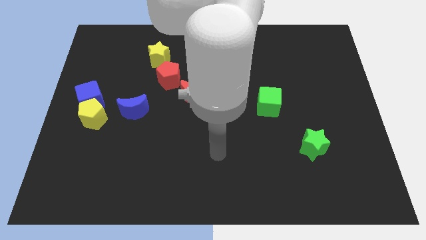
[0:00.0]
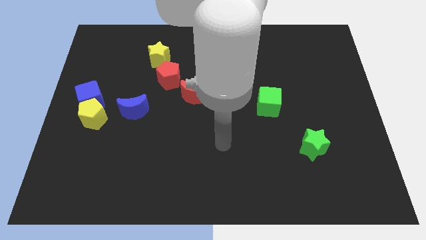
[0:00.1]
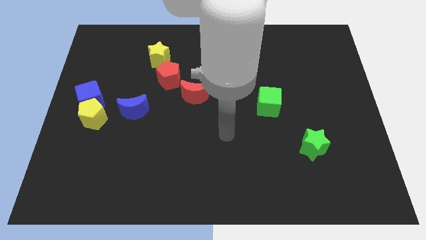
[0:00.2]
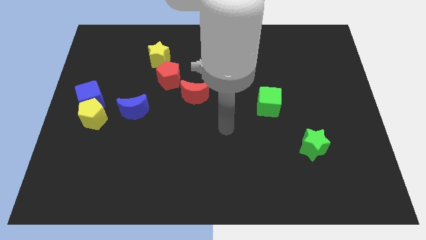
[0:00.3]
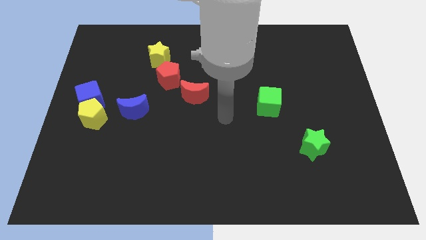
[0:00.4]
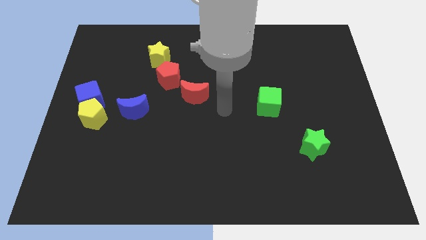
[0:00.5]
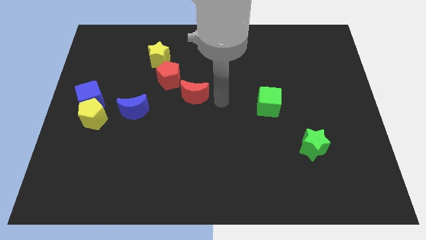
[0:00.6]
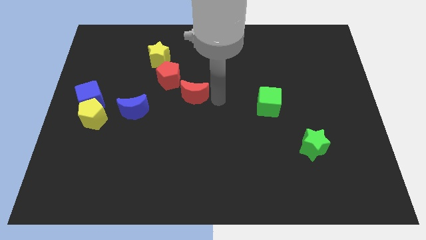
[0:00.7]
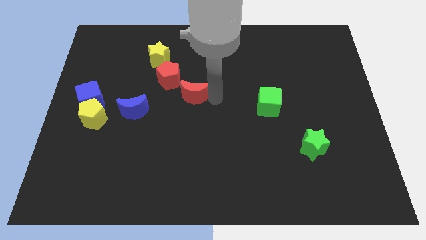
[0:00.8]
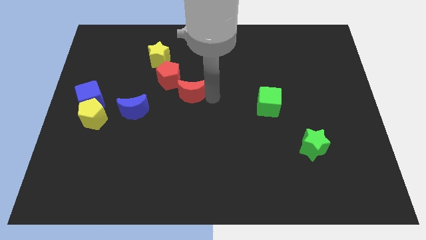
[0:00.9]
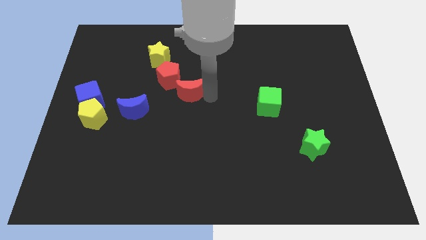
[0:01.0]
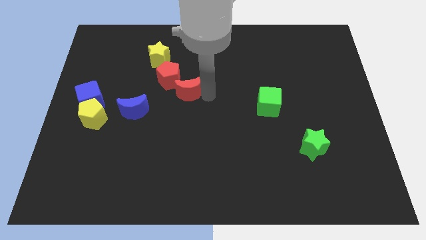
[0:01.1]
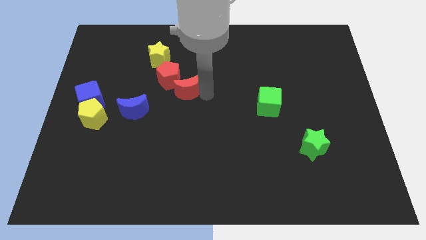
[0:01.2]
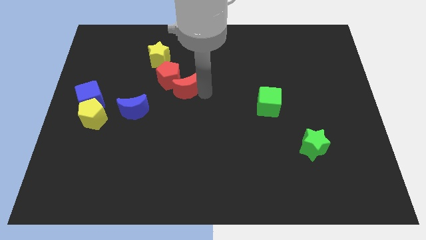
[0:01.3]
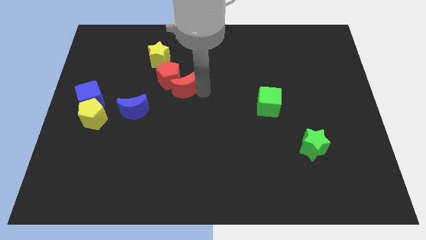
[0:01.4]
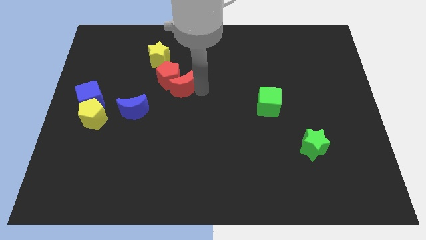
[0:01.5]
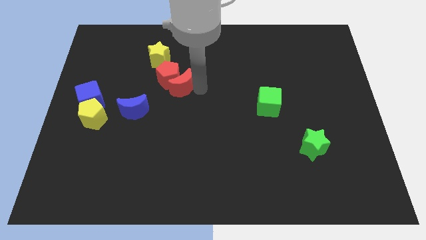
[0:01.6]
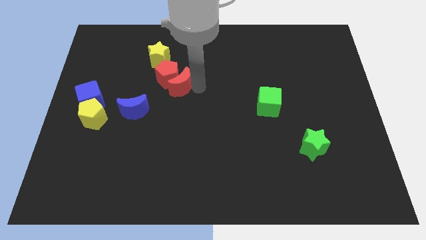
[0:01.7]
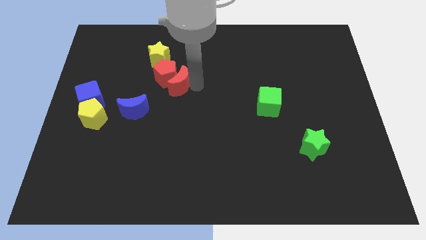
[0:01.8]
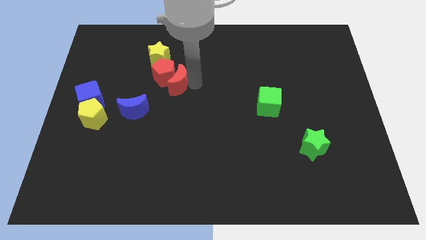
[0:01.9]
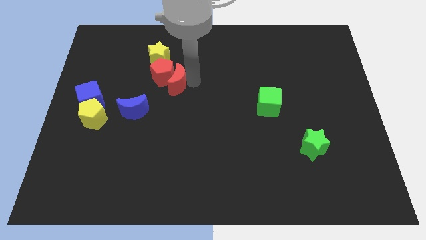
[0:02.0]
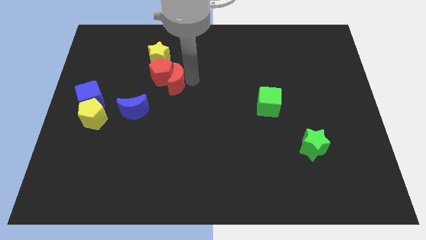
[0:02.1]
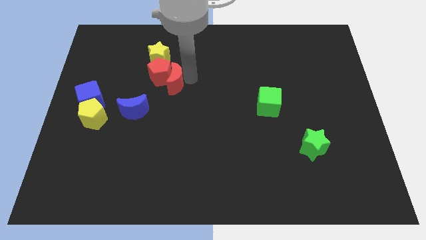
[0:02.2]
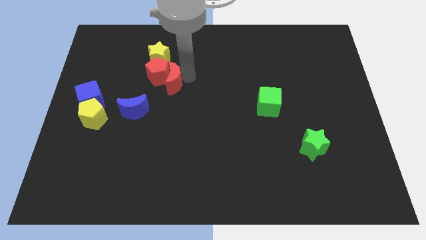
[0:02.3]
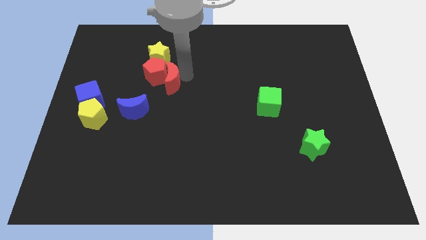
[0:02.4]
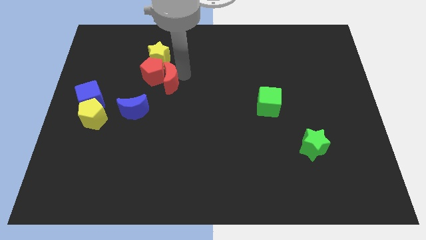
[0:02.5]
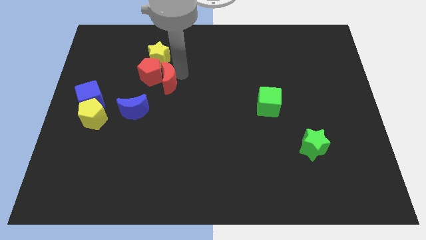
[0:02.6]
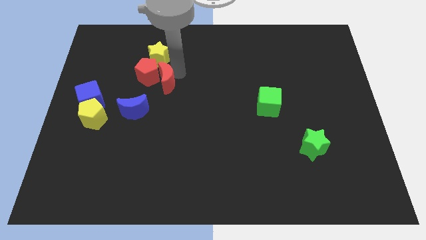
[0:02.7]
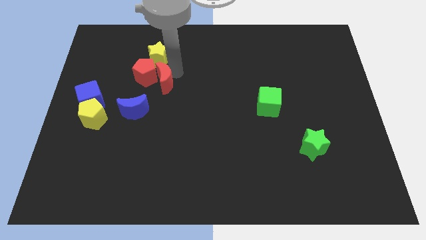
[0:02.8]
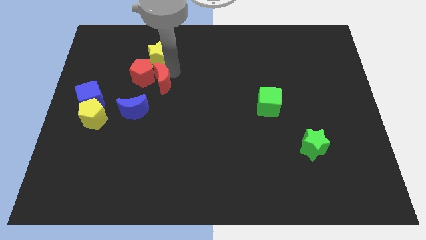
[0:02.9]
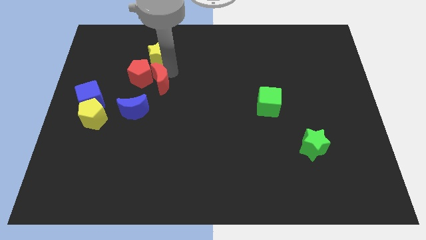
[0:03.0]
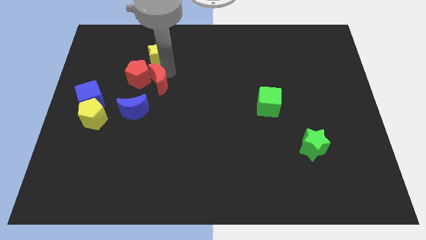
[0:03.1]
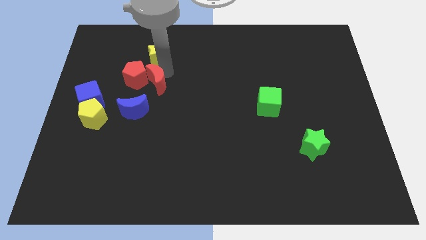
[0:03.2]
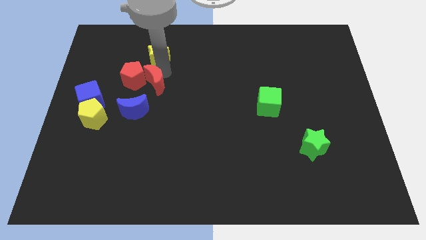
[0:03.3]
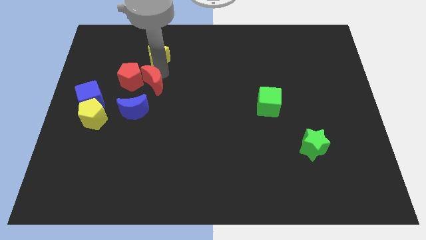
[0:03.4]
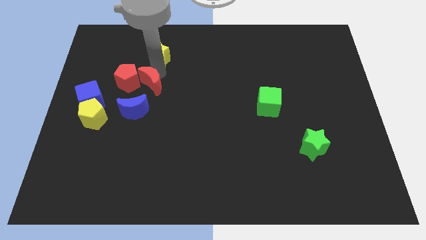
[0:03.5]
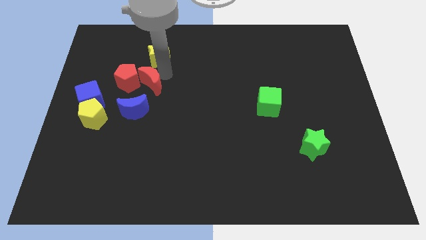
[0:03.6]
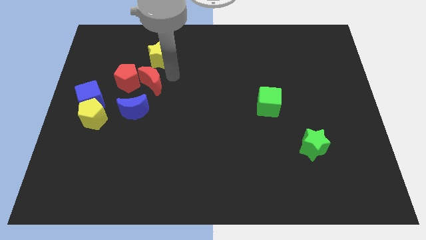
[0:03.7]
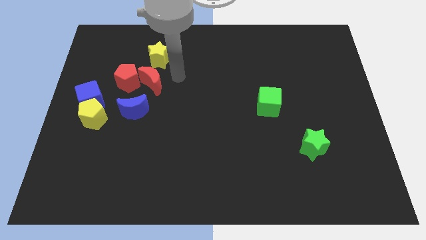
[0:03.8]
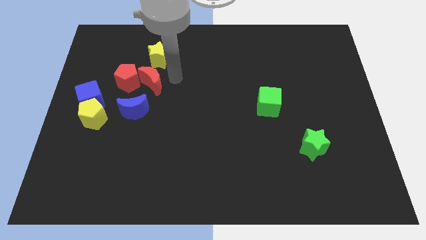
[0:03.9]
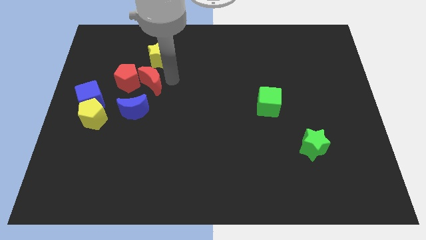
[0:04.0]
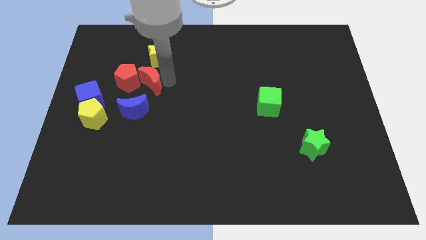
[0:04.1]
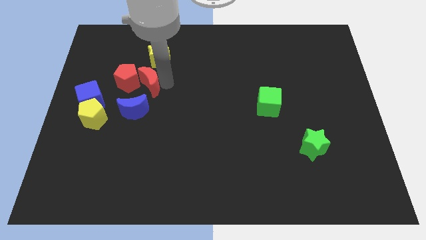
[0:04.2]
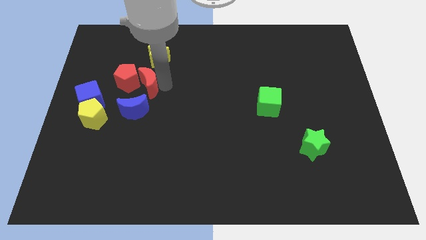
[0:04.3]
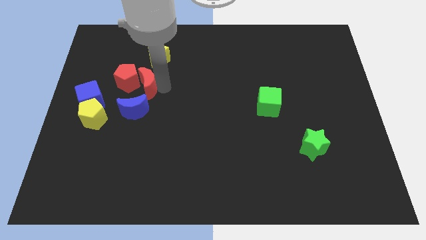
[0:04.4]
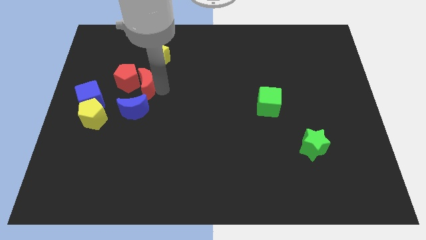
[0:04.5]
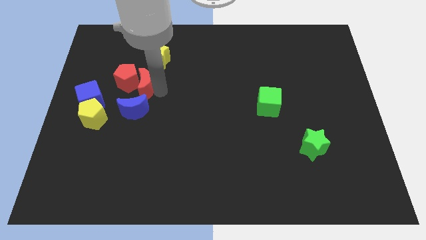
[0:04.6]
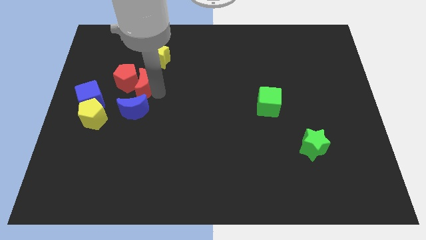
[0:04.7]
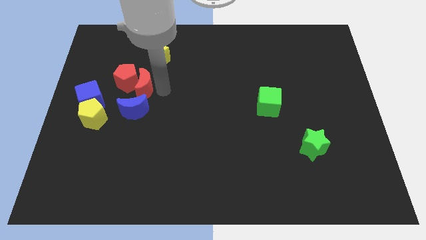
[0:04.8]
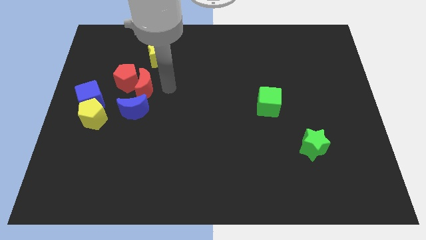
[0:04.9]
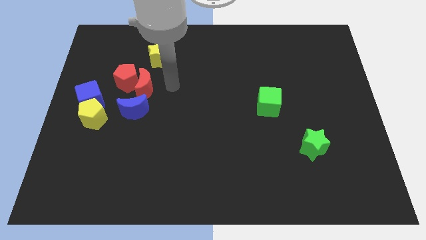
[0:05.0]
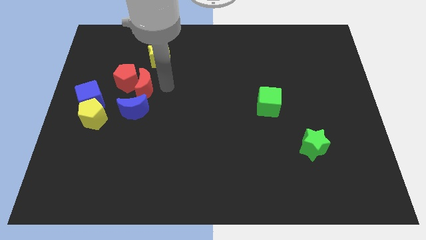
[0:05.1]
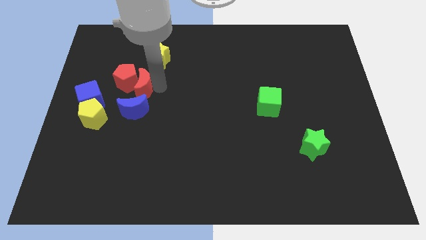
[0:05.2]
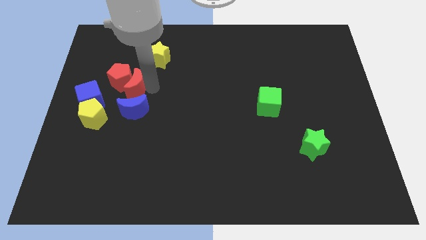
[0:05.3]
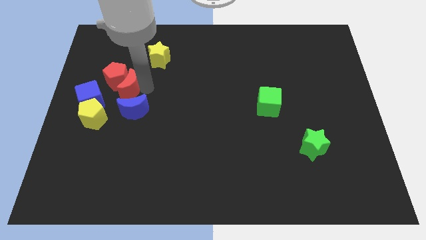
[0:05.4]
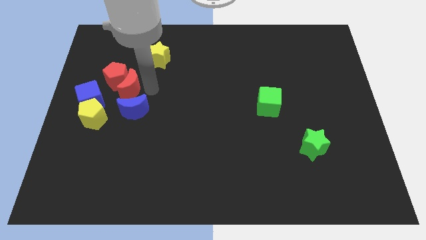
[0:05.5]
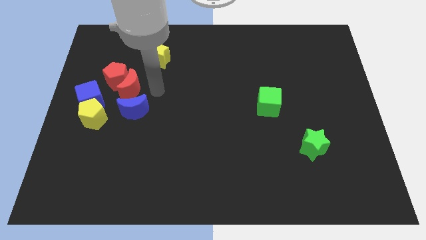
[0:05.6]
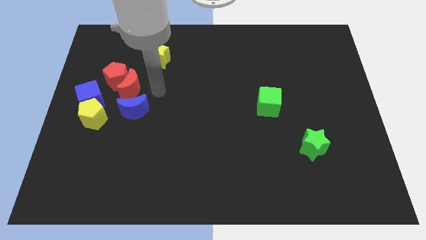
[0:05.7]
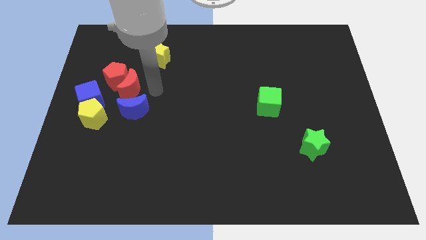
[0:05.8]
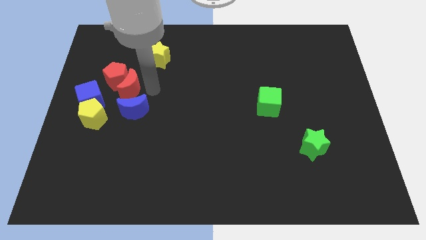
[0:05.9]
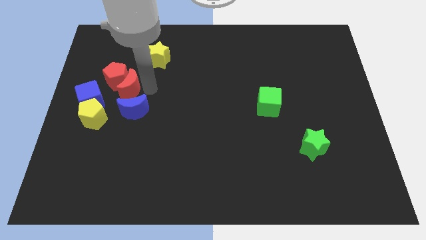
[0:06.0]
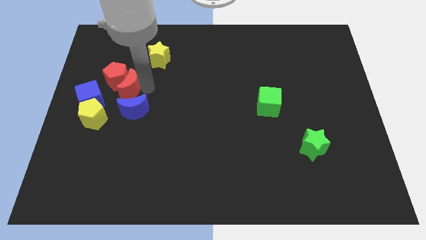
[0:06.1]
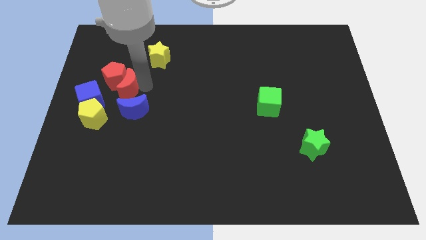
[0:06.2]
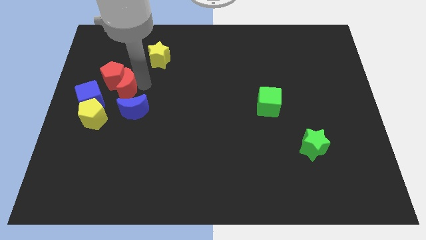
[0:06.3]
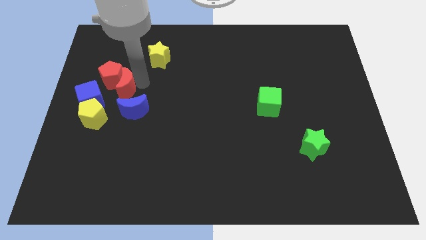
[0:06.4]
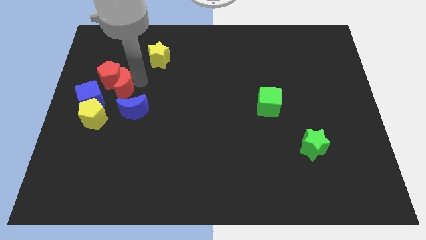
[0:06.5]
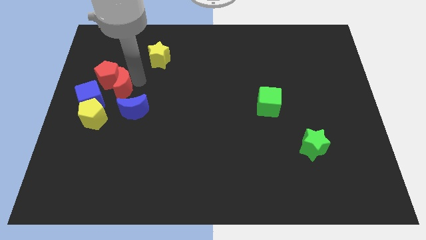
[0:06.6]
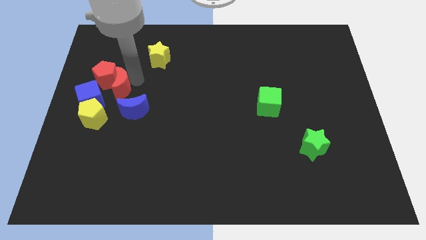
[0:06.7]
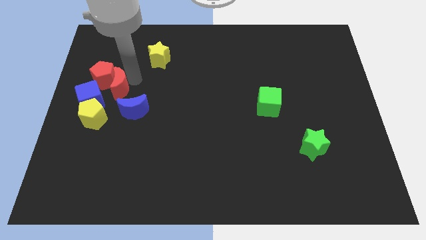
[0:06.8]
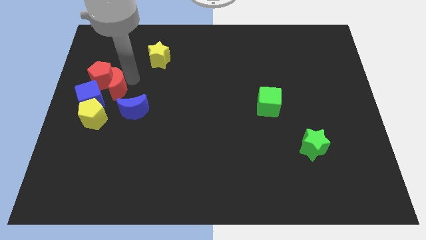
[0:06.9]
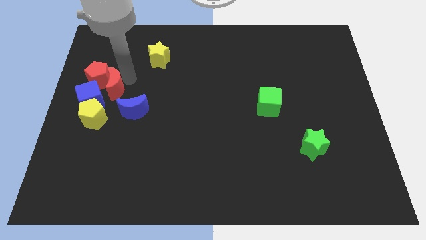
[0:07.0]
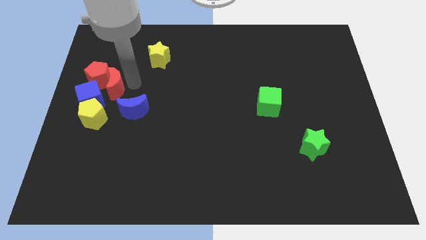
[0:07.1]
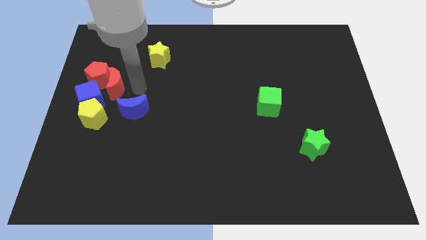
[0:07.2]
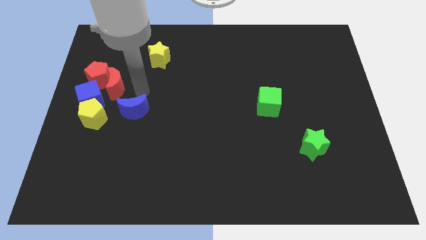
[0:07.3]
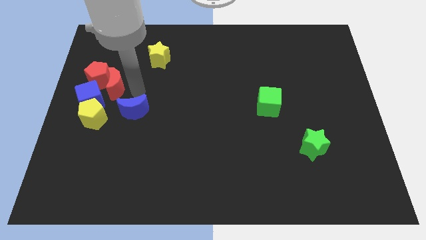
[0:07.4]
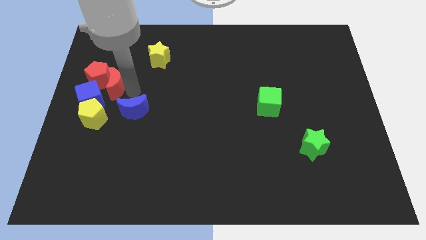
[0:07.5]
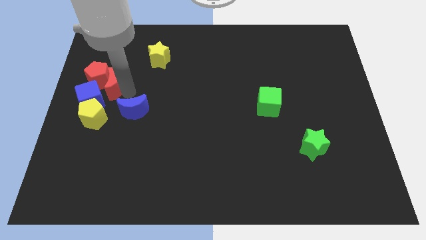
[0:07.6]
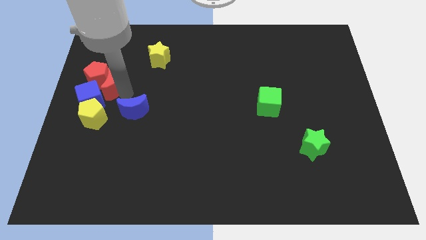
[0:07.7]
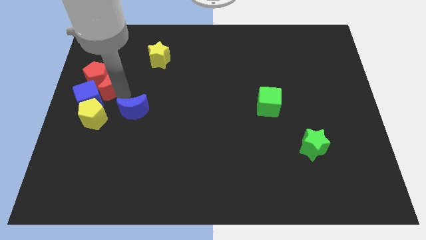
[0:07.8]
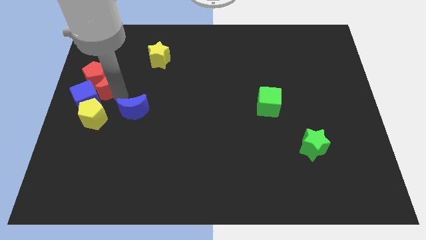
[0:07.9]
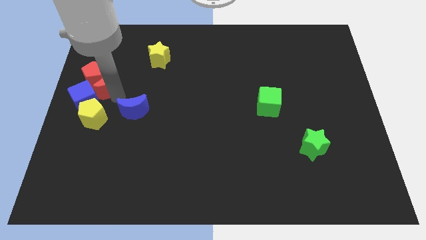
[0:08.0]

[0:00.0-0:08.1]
push the red moon to the center left
